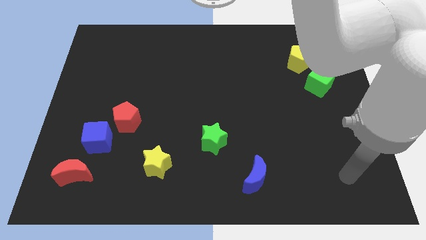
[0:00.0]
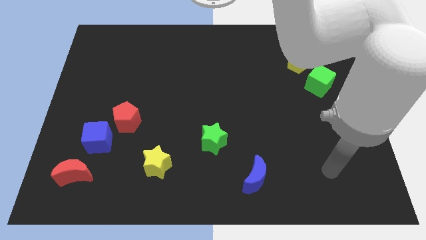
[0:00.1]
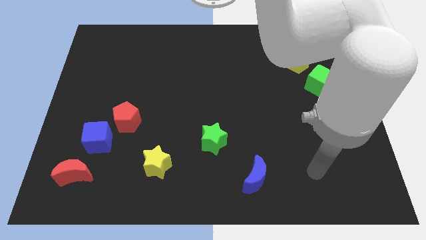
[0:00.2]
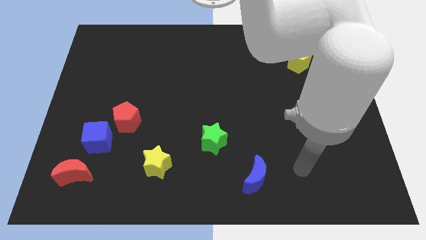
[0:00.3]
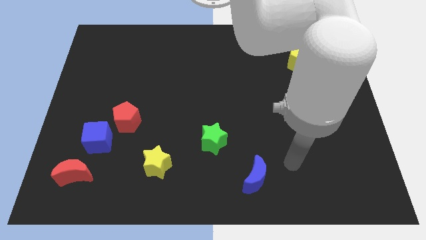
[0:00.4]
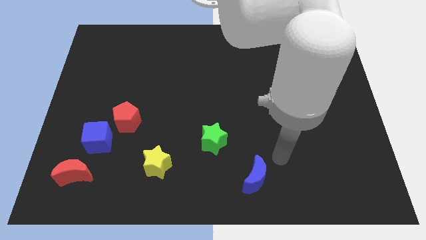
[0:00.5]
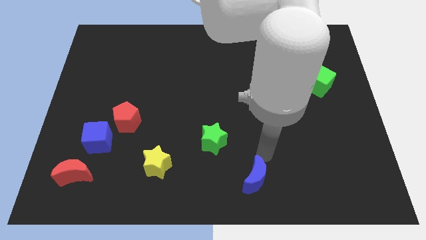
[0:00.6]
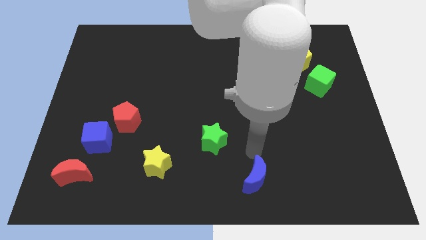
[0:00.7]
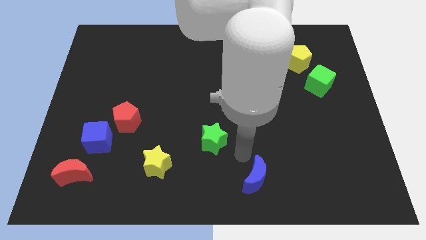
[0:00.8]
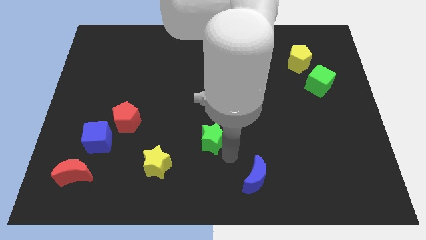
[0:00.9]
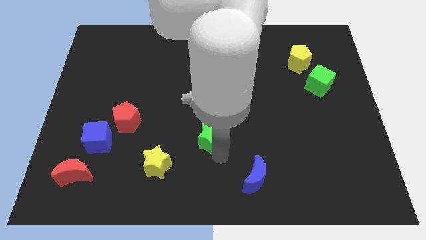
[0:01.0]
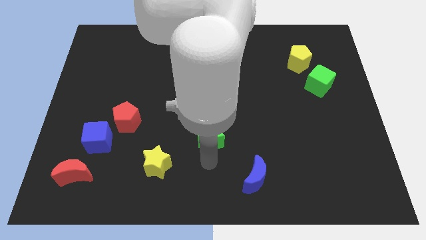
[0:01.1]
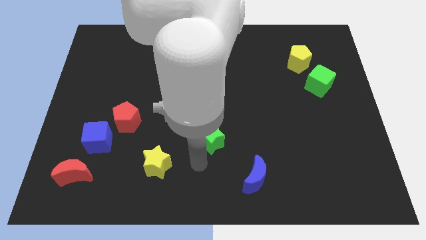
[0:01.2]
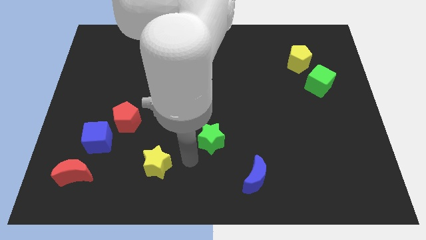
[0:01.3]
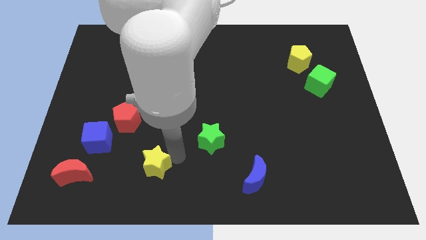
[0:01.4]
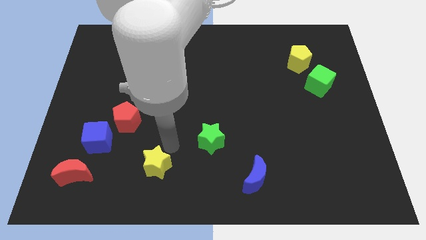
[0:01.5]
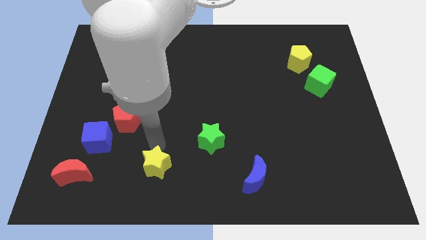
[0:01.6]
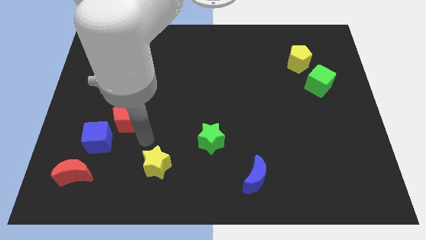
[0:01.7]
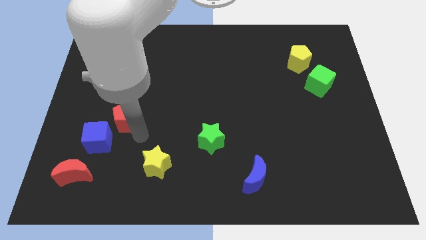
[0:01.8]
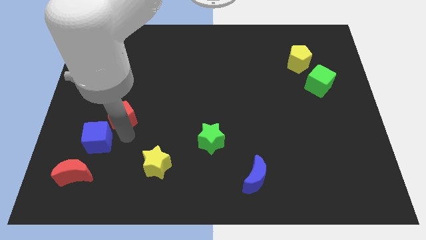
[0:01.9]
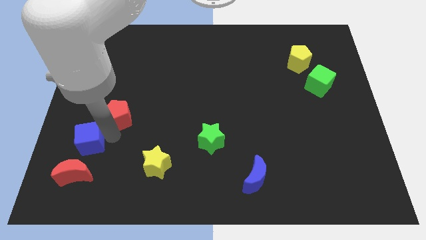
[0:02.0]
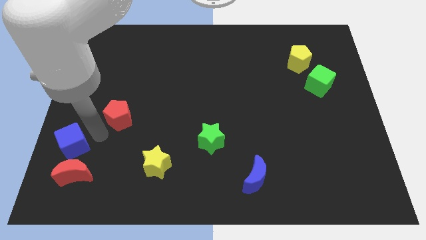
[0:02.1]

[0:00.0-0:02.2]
move the red pentagon away from the blue cube

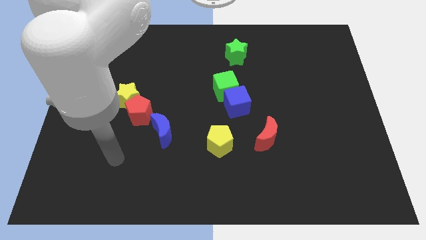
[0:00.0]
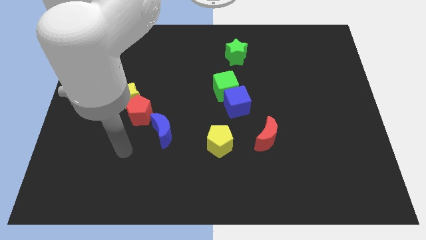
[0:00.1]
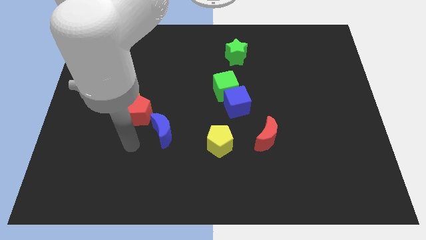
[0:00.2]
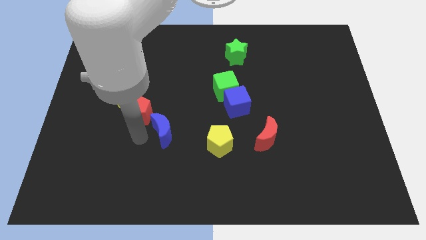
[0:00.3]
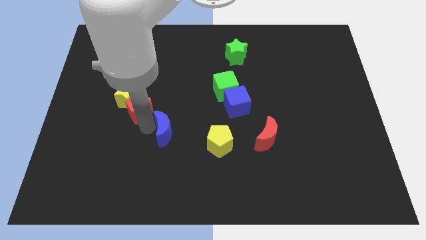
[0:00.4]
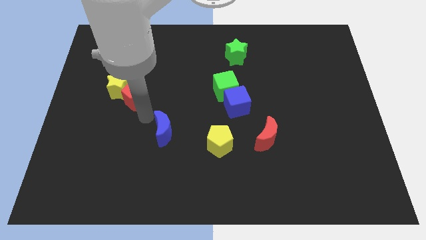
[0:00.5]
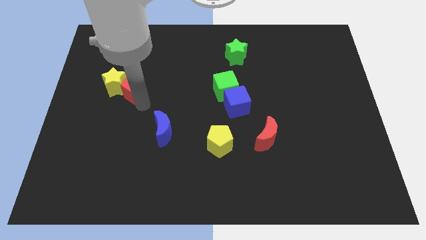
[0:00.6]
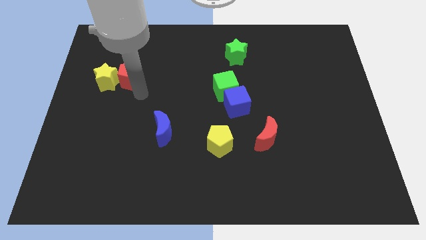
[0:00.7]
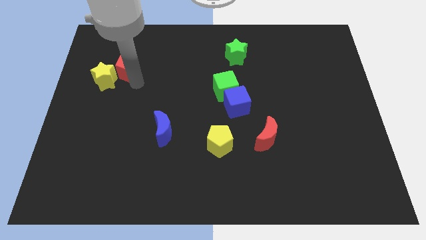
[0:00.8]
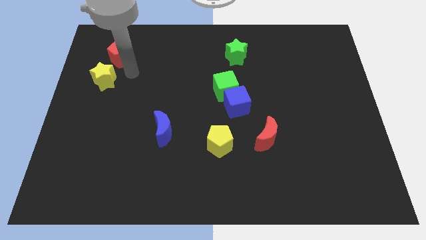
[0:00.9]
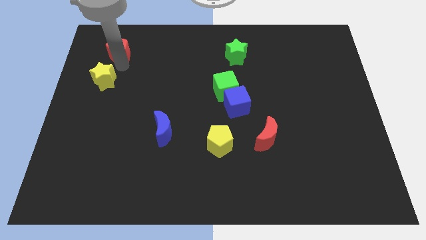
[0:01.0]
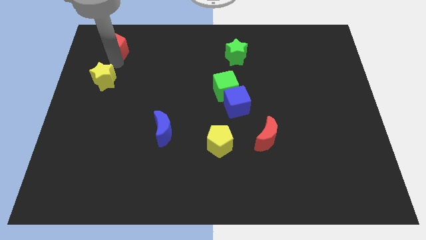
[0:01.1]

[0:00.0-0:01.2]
separate the yellow star from the red pentagon

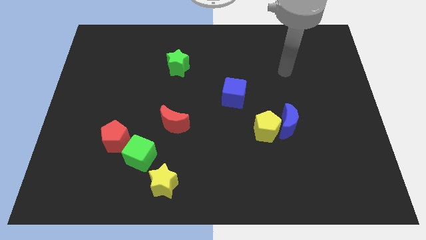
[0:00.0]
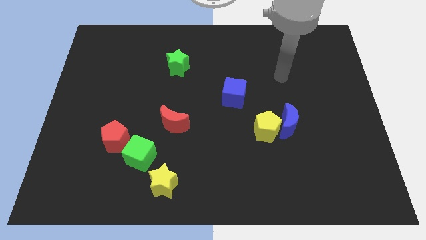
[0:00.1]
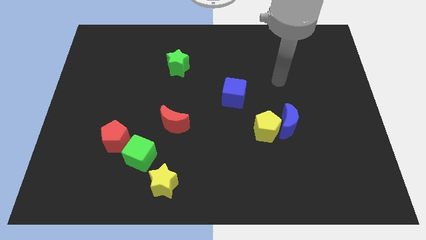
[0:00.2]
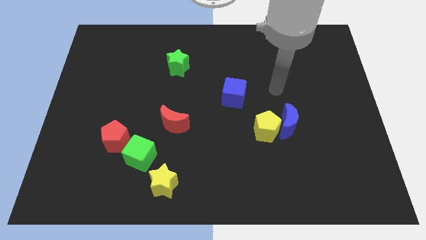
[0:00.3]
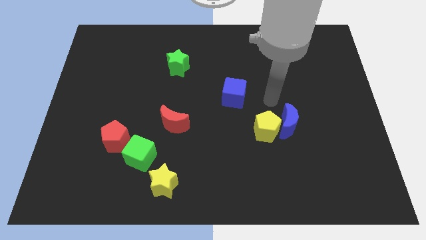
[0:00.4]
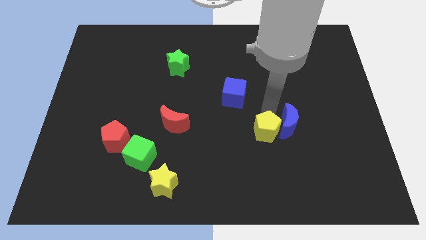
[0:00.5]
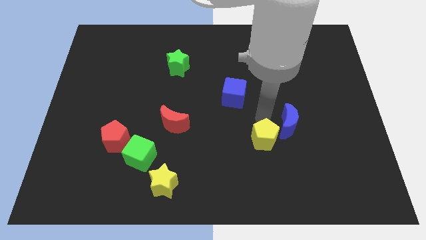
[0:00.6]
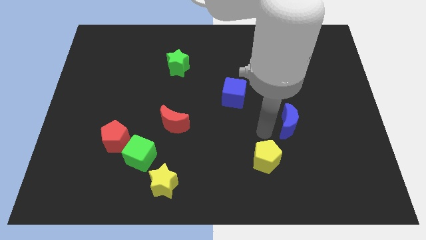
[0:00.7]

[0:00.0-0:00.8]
pull the blue moon apart from the yellow pentagon

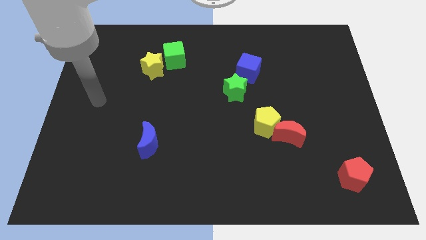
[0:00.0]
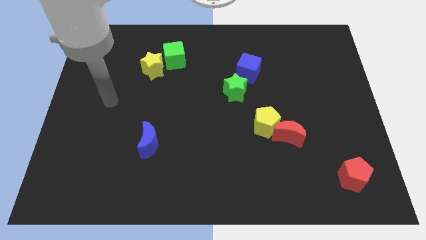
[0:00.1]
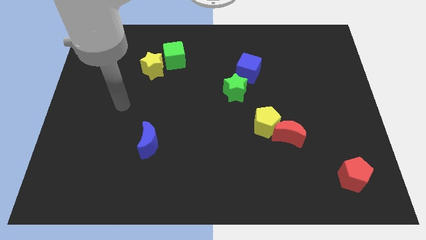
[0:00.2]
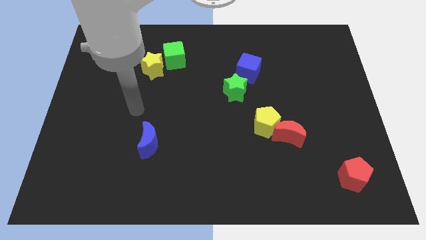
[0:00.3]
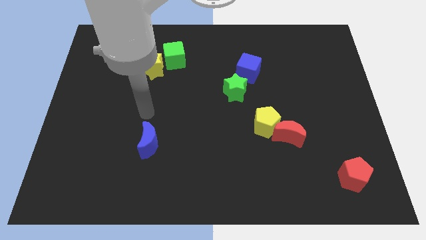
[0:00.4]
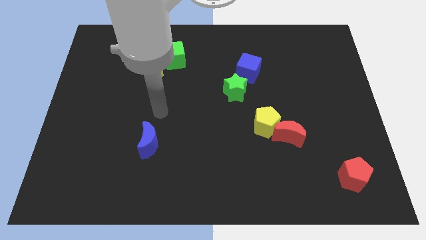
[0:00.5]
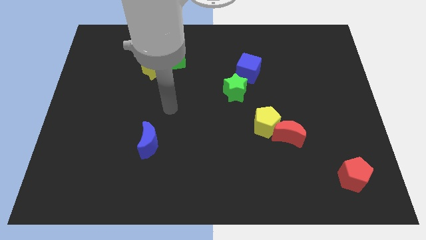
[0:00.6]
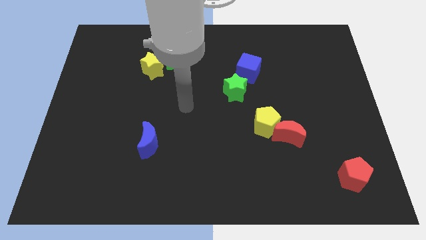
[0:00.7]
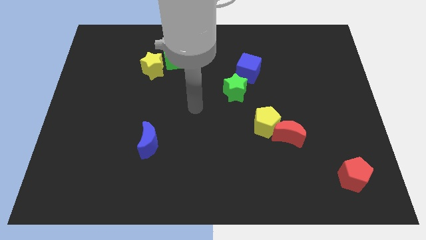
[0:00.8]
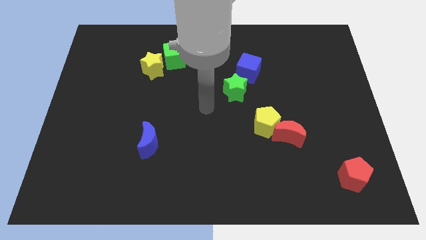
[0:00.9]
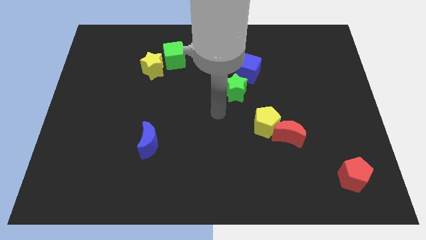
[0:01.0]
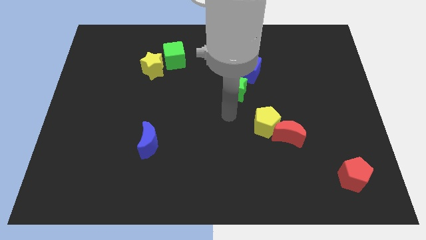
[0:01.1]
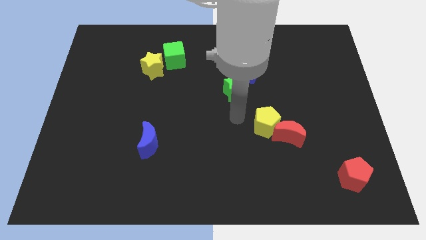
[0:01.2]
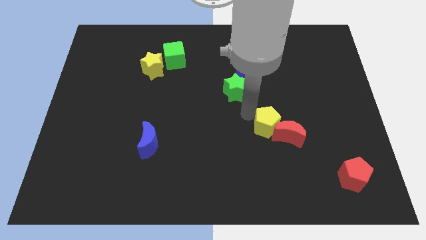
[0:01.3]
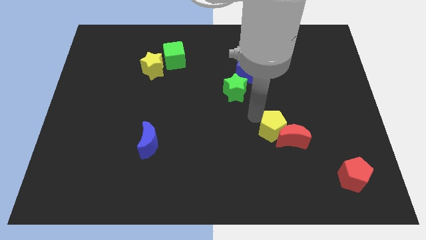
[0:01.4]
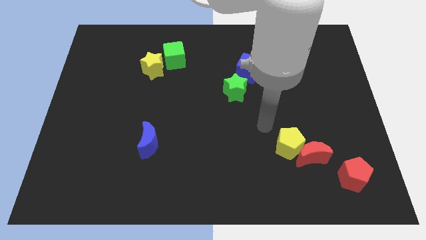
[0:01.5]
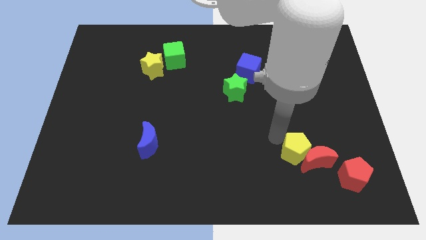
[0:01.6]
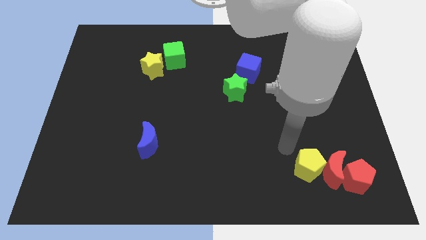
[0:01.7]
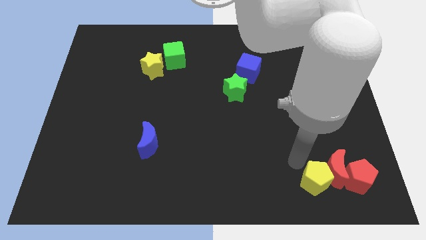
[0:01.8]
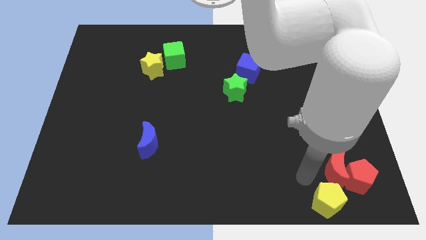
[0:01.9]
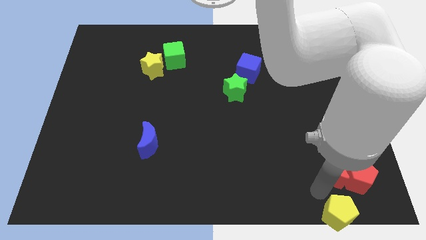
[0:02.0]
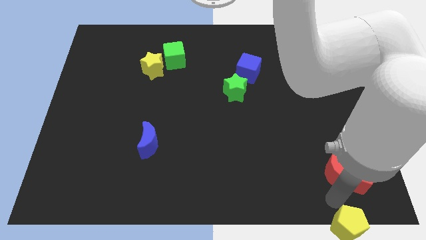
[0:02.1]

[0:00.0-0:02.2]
separate the red moon from the yellow pentagon

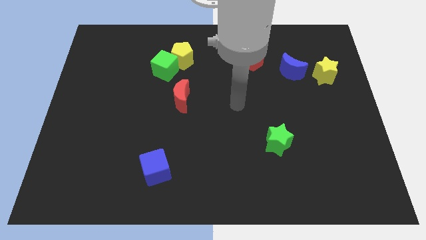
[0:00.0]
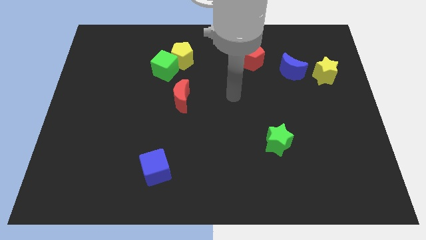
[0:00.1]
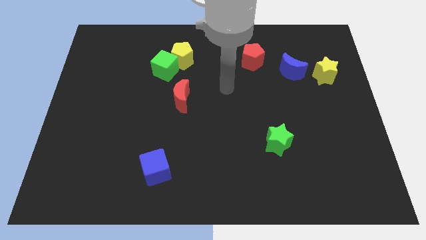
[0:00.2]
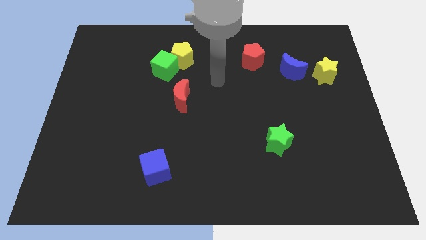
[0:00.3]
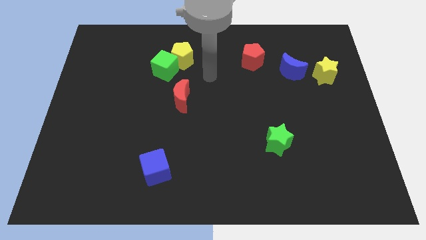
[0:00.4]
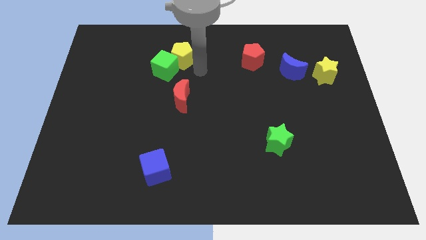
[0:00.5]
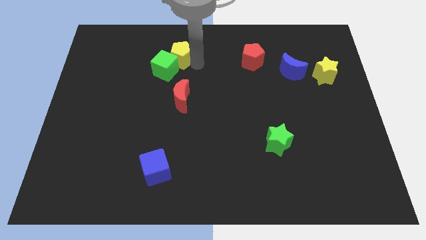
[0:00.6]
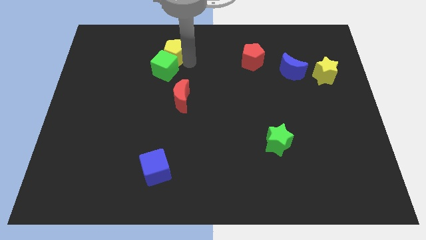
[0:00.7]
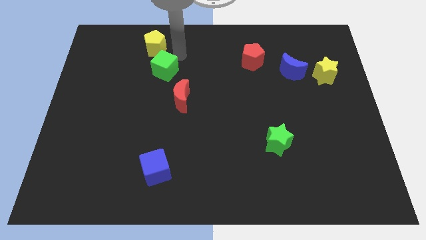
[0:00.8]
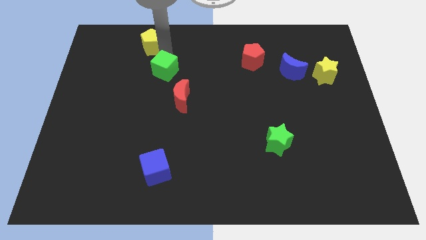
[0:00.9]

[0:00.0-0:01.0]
separate the green cube from the yellow pentagon

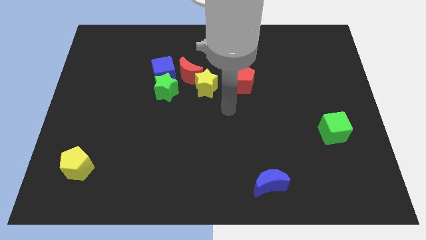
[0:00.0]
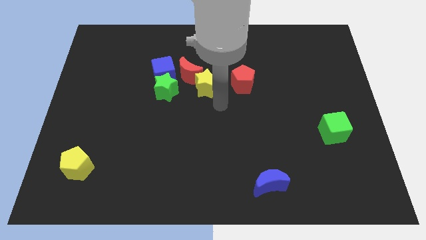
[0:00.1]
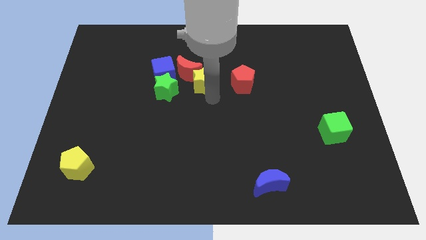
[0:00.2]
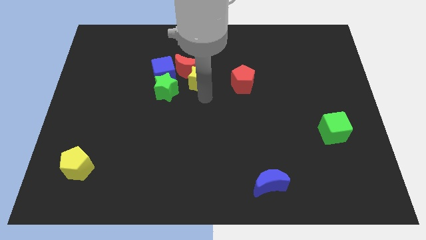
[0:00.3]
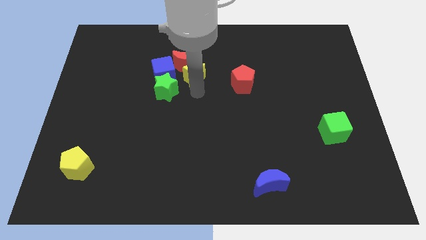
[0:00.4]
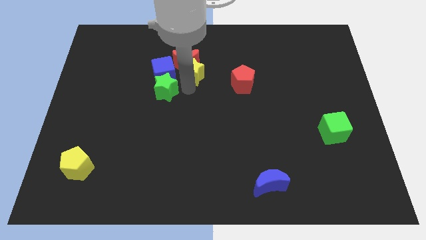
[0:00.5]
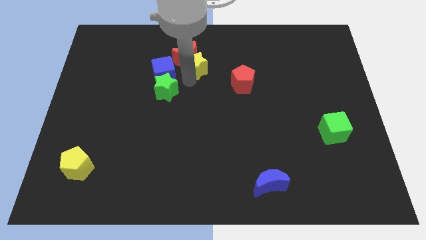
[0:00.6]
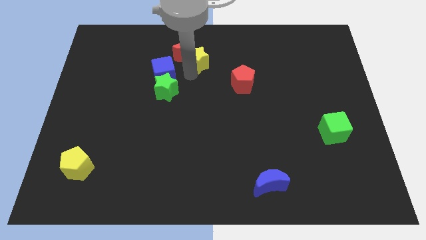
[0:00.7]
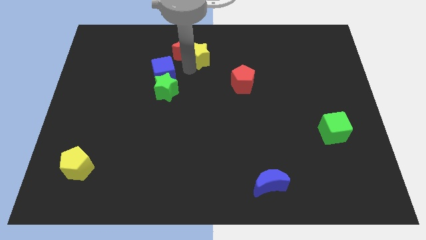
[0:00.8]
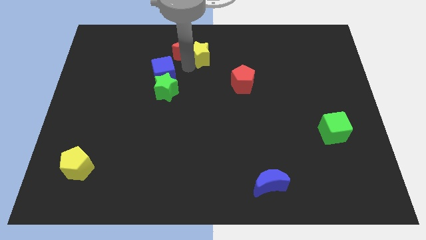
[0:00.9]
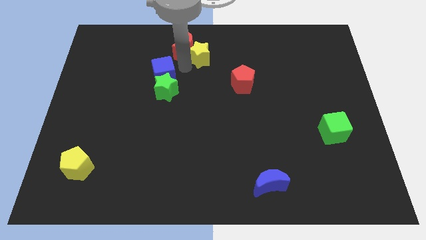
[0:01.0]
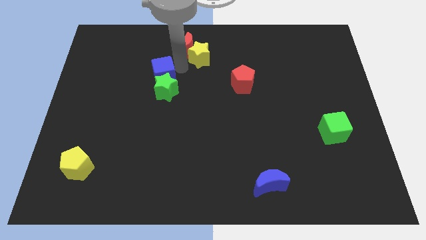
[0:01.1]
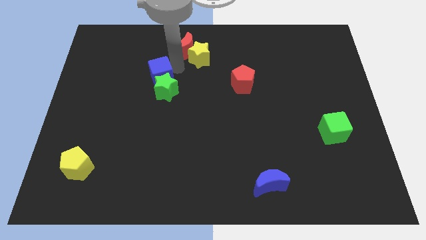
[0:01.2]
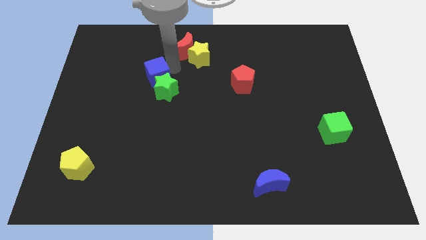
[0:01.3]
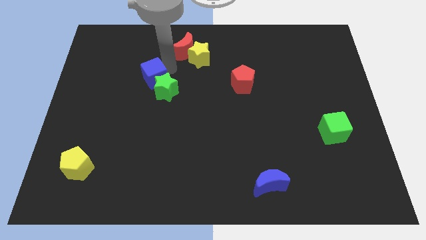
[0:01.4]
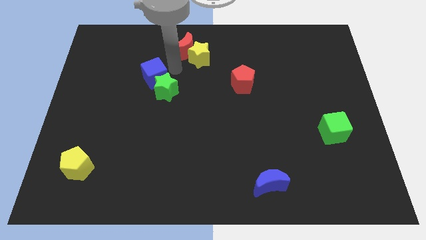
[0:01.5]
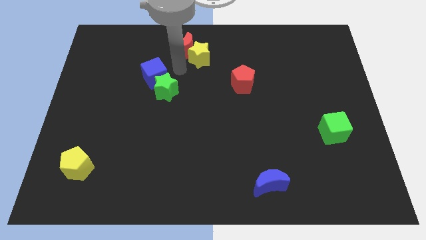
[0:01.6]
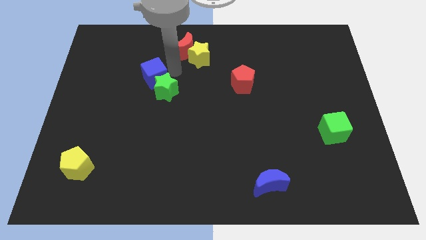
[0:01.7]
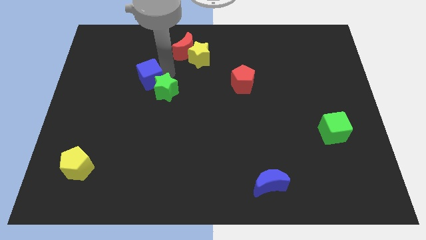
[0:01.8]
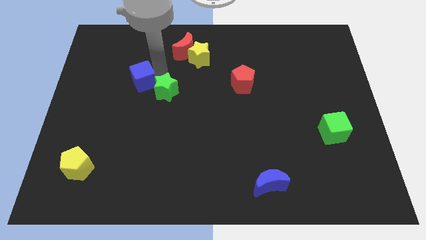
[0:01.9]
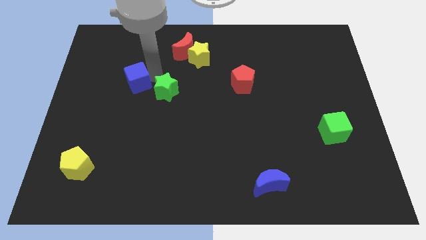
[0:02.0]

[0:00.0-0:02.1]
pull the blue cube apart from the green star and red moon
